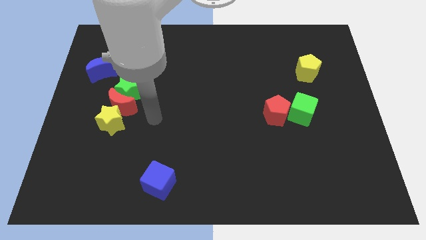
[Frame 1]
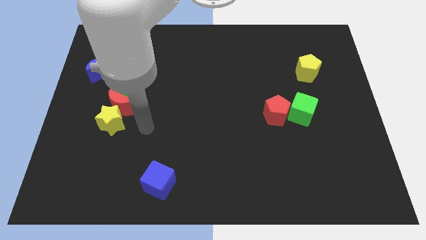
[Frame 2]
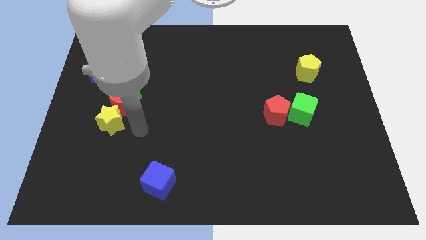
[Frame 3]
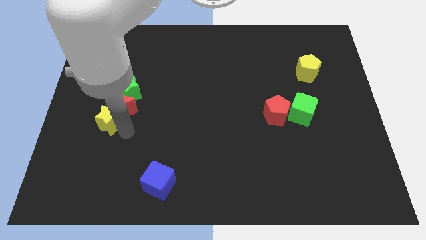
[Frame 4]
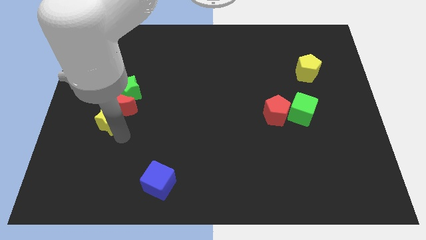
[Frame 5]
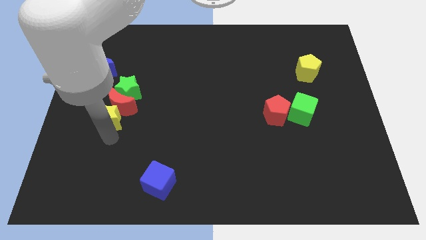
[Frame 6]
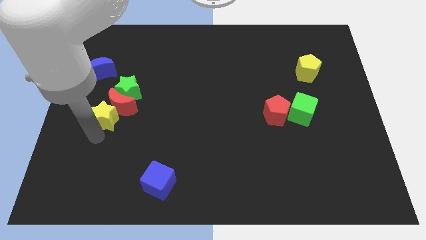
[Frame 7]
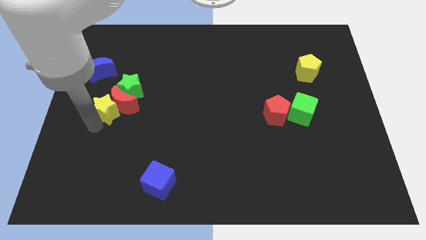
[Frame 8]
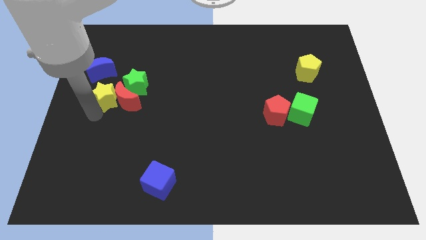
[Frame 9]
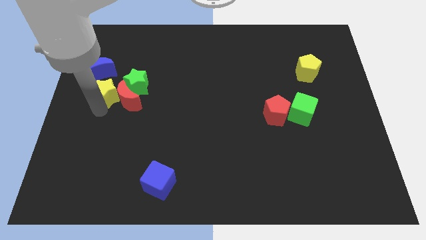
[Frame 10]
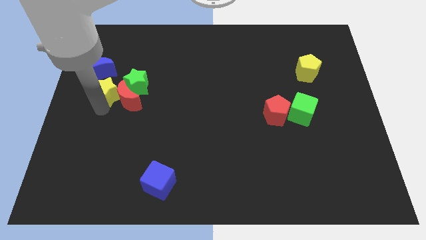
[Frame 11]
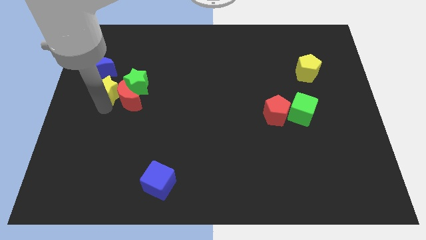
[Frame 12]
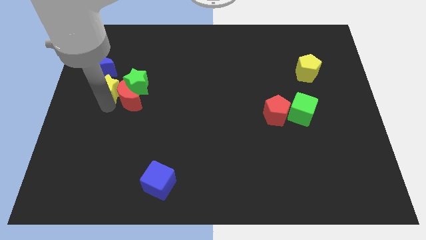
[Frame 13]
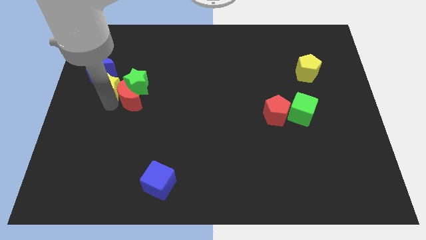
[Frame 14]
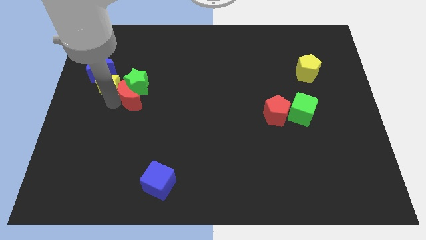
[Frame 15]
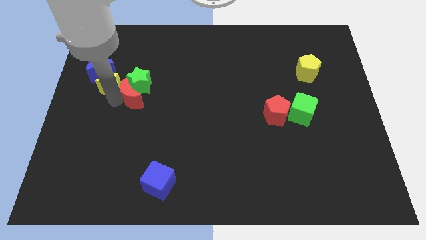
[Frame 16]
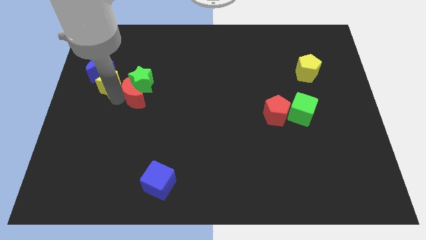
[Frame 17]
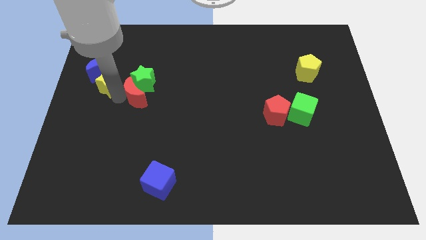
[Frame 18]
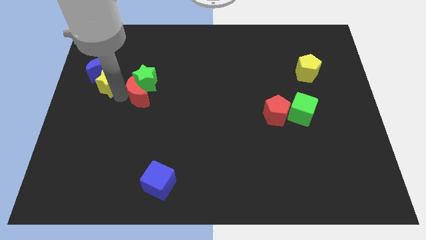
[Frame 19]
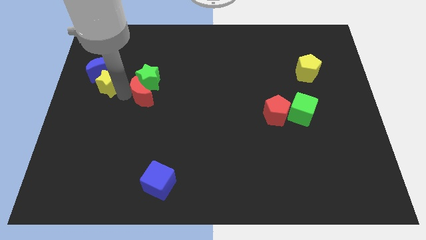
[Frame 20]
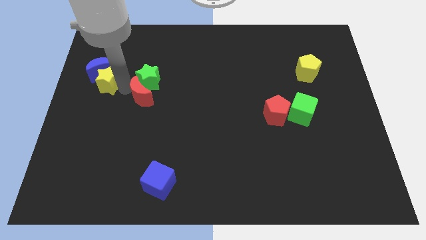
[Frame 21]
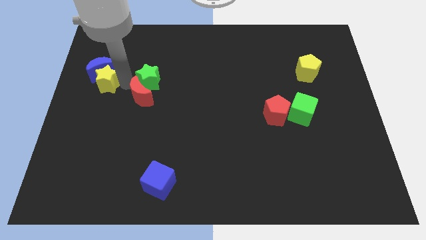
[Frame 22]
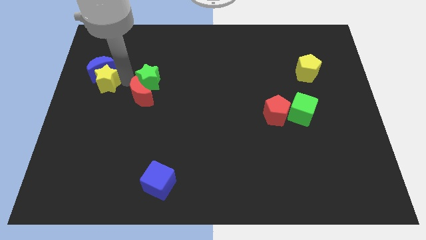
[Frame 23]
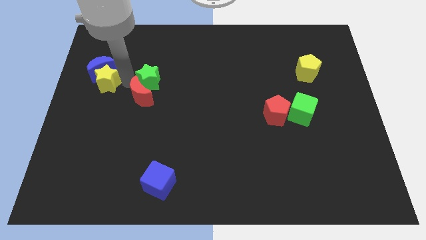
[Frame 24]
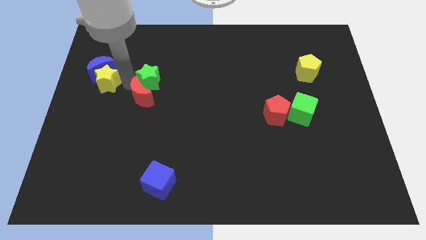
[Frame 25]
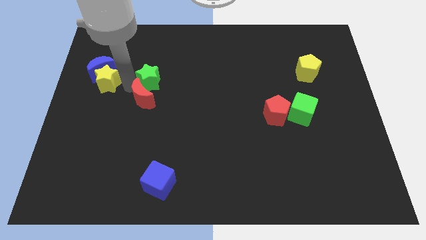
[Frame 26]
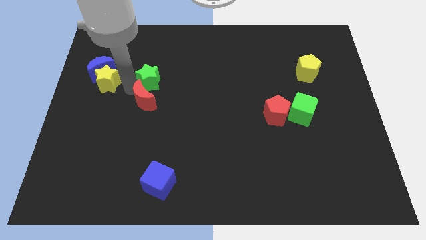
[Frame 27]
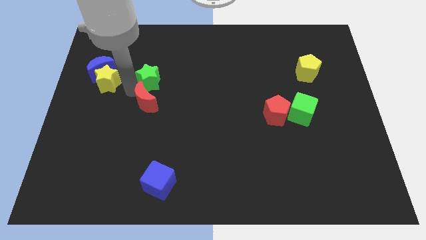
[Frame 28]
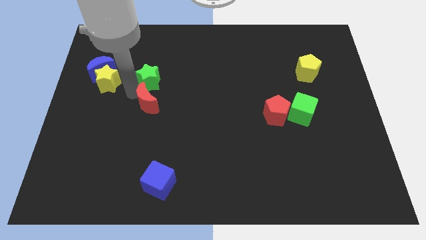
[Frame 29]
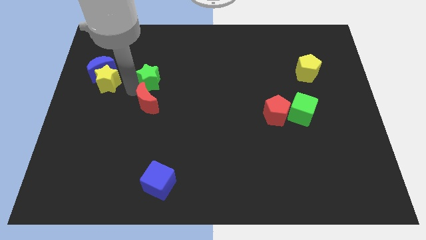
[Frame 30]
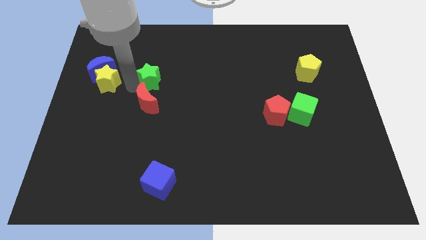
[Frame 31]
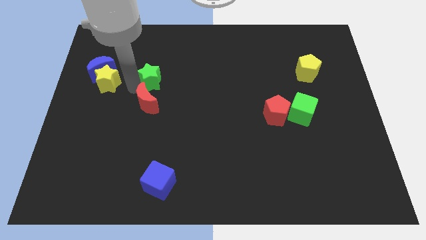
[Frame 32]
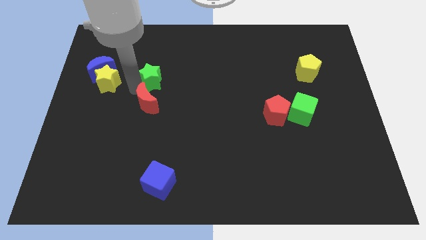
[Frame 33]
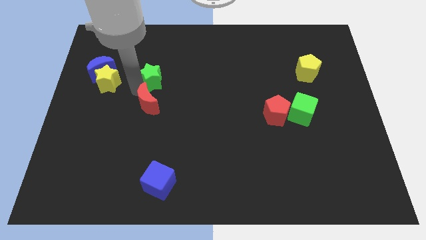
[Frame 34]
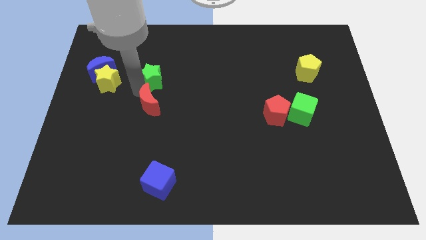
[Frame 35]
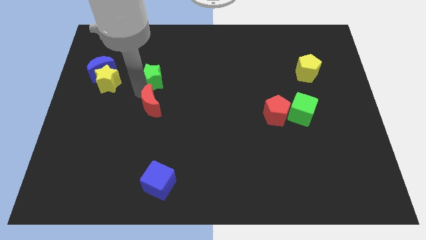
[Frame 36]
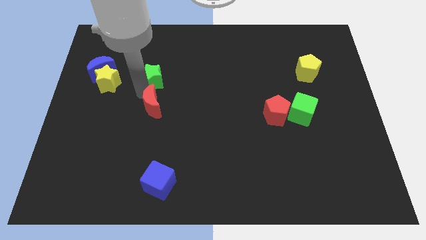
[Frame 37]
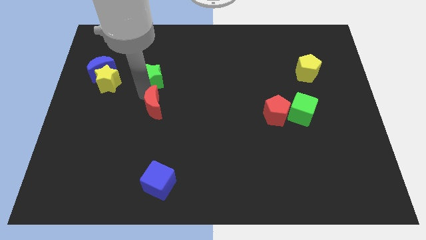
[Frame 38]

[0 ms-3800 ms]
separate the red moon from the green star and yellow star

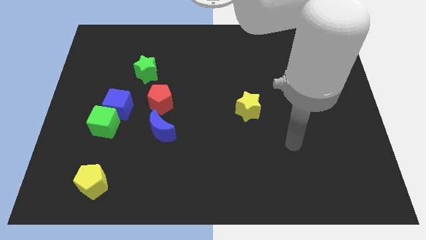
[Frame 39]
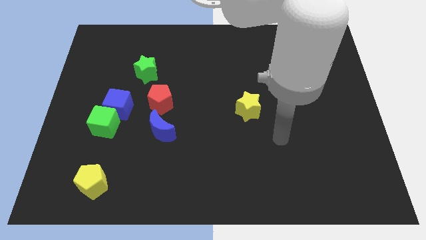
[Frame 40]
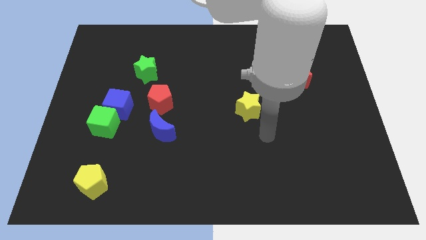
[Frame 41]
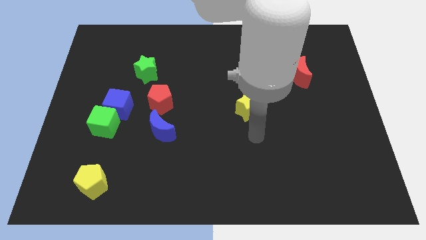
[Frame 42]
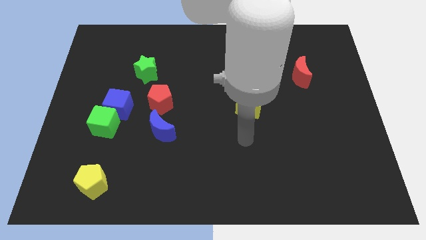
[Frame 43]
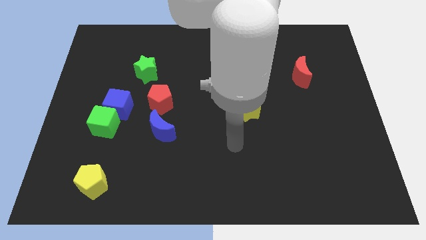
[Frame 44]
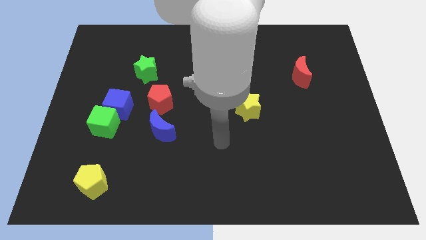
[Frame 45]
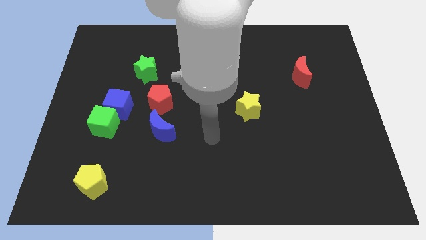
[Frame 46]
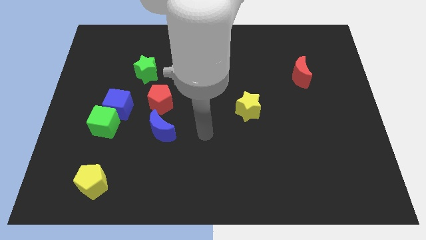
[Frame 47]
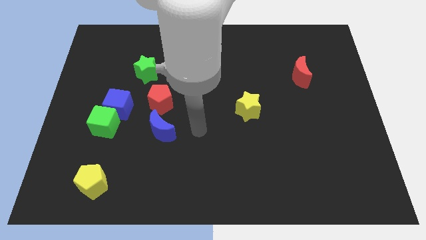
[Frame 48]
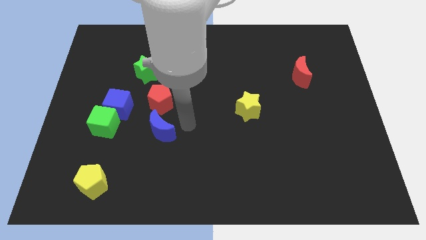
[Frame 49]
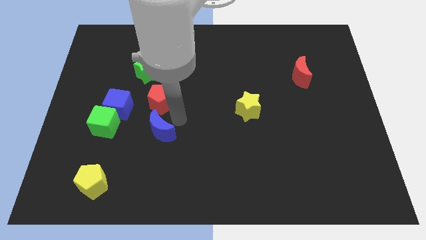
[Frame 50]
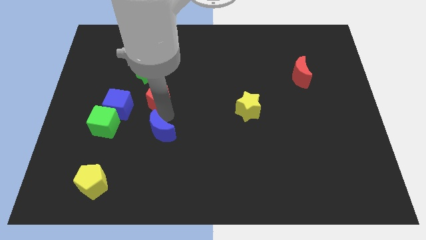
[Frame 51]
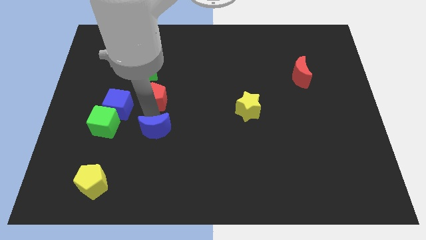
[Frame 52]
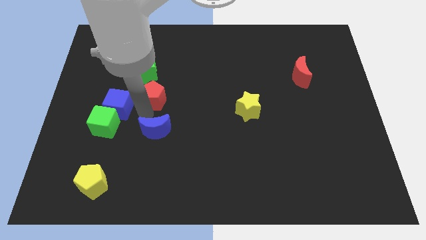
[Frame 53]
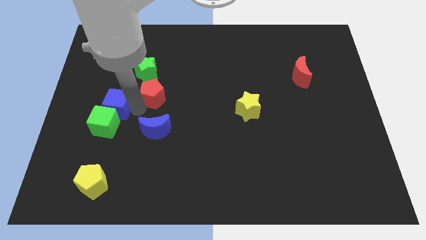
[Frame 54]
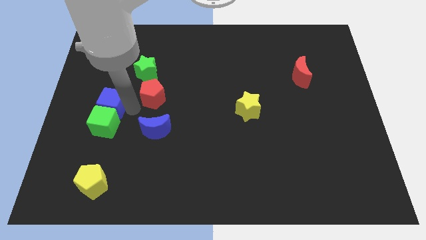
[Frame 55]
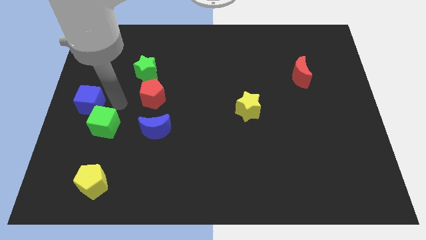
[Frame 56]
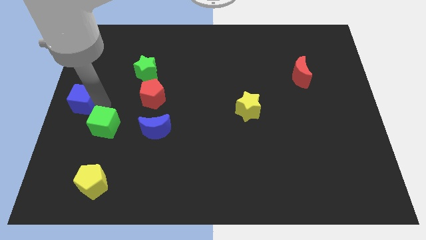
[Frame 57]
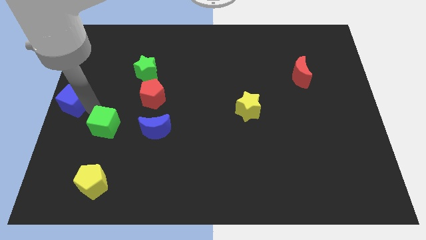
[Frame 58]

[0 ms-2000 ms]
separate the green cube from the blue cube

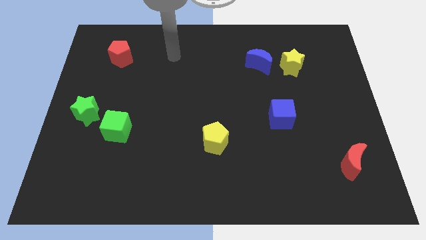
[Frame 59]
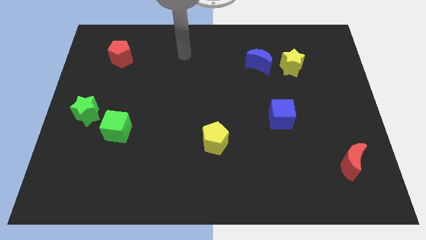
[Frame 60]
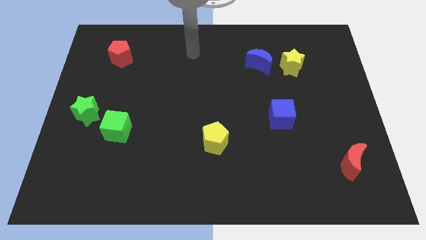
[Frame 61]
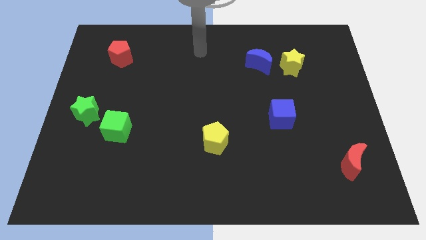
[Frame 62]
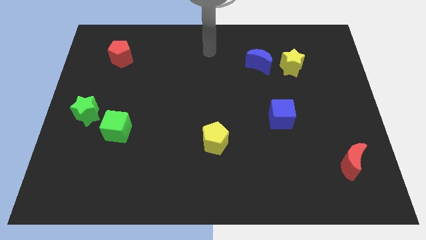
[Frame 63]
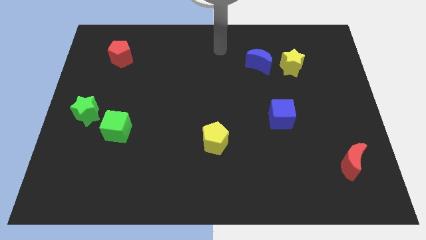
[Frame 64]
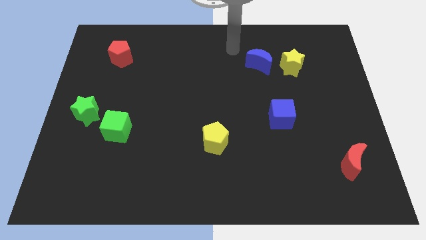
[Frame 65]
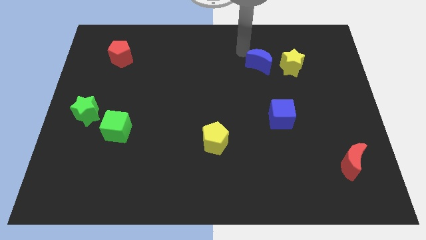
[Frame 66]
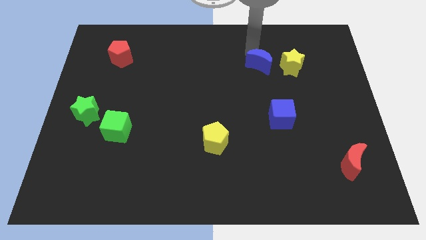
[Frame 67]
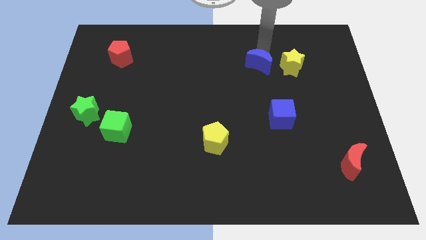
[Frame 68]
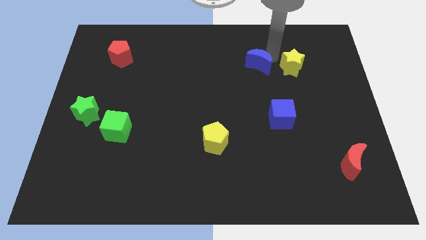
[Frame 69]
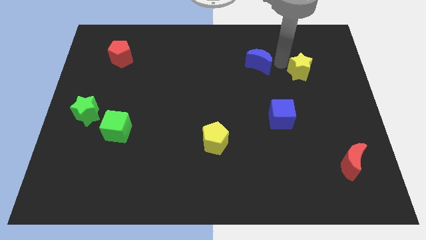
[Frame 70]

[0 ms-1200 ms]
separate the blue moon from the yellow star

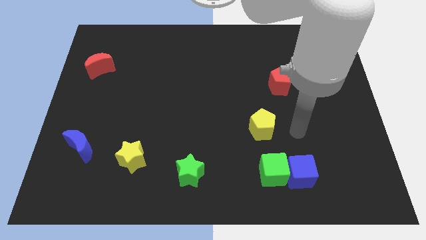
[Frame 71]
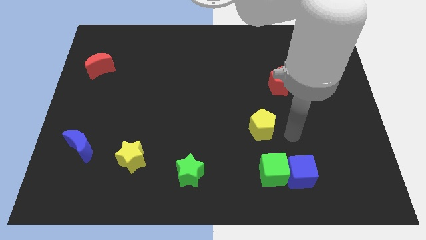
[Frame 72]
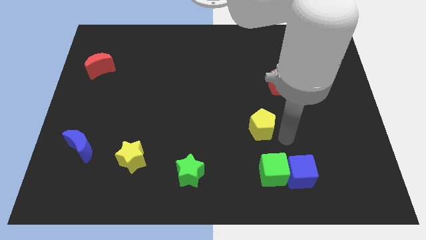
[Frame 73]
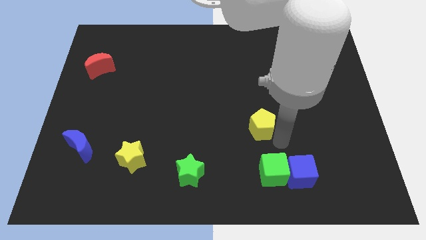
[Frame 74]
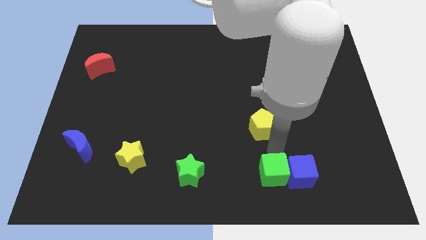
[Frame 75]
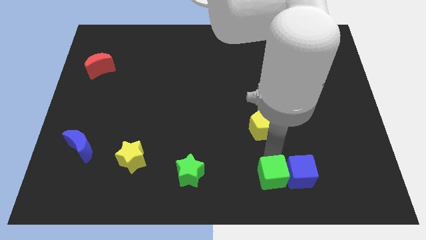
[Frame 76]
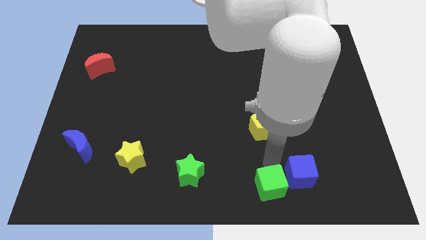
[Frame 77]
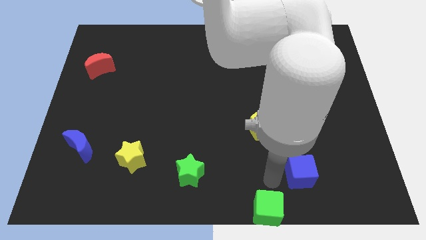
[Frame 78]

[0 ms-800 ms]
pull the blue cube apart from the green cube

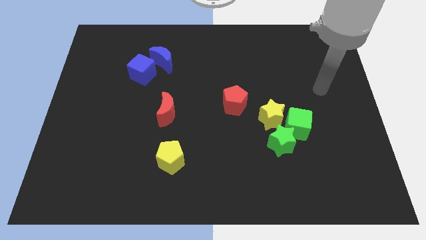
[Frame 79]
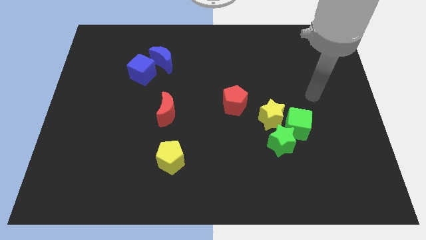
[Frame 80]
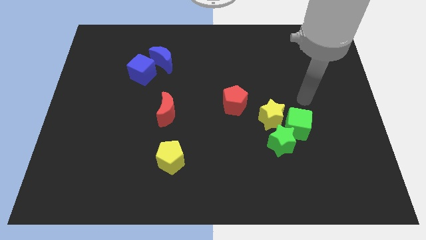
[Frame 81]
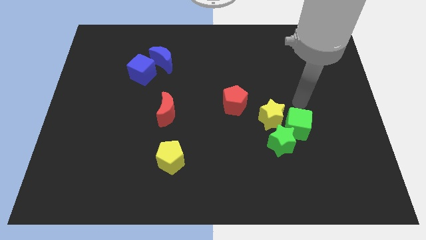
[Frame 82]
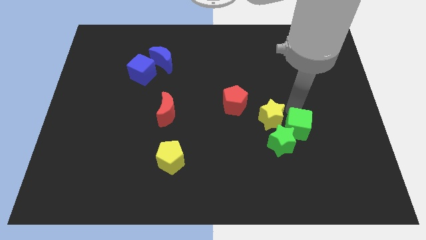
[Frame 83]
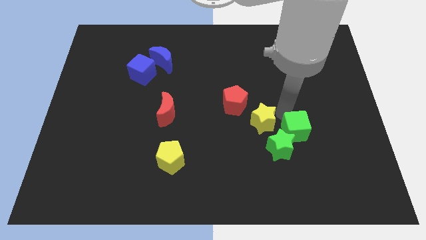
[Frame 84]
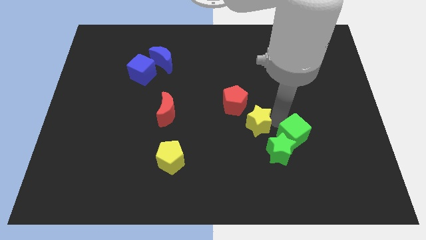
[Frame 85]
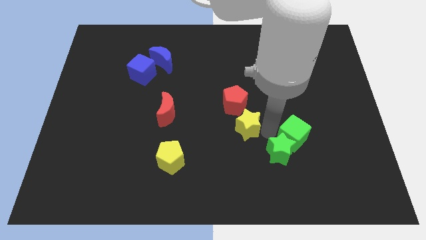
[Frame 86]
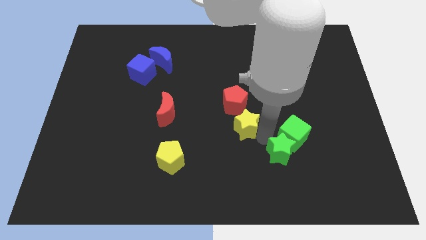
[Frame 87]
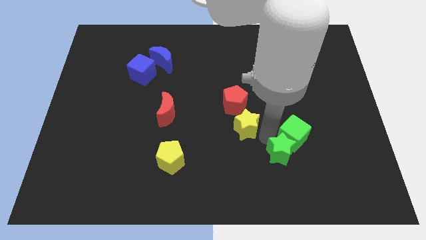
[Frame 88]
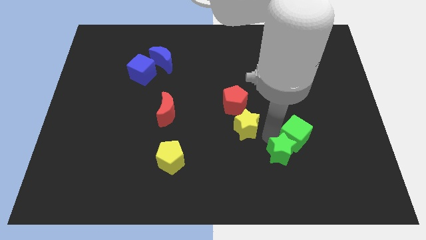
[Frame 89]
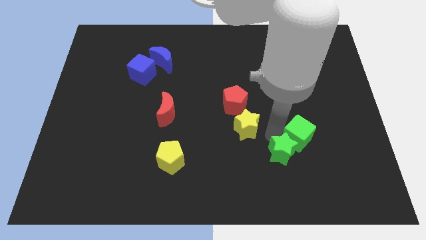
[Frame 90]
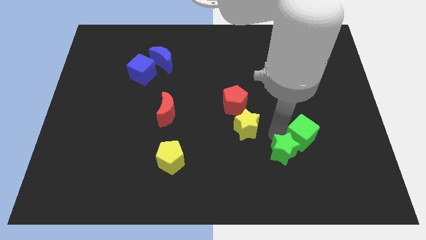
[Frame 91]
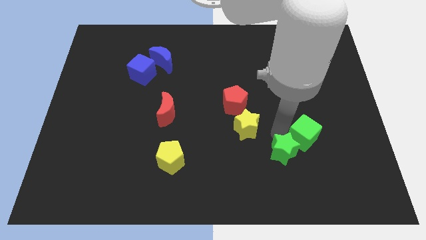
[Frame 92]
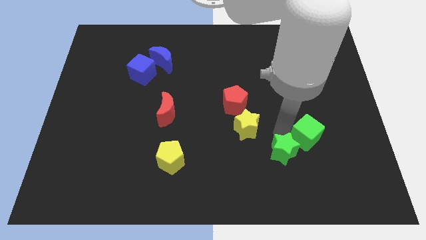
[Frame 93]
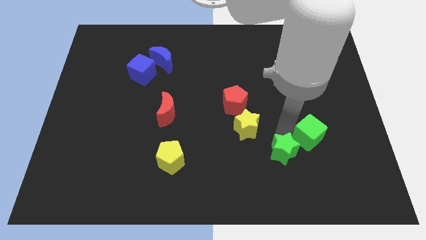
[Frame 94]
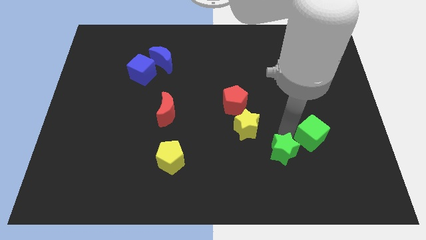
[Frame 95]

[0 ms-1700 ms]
move the green cube away from the yellow star and green star
